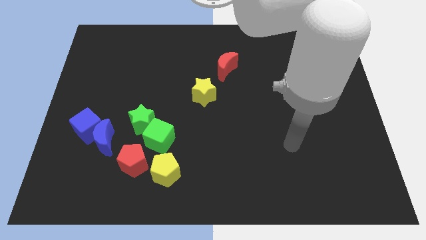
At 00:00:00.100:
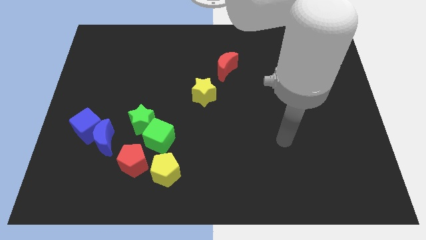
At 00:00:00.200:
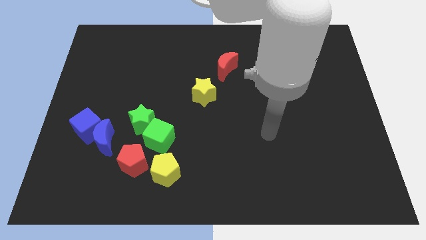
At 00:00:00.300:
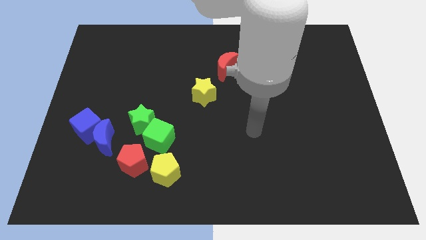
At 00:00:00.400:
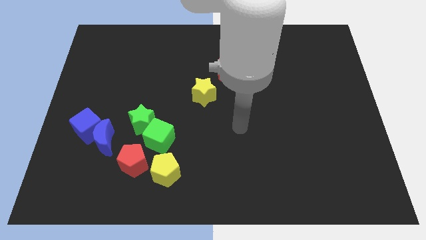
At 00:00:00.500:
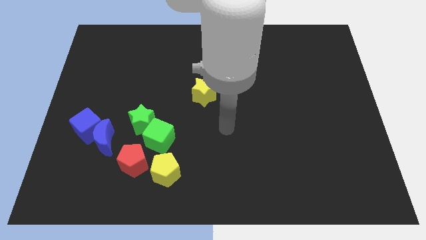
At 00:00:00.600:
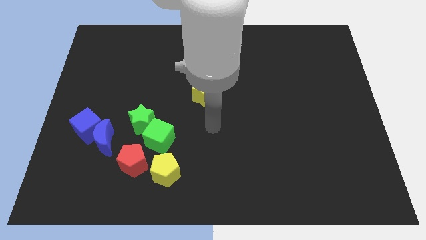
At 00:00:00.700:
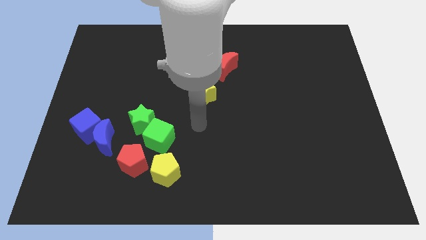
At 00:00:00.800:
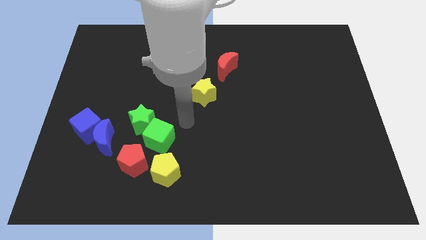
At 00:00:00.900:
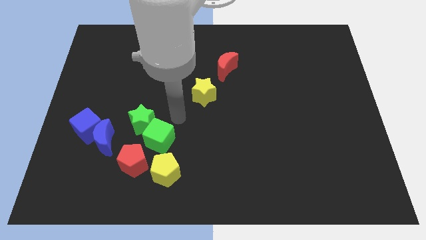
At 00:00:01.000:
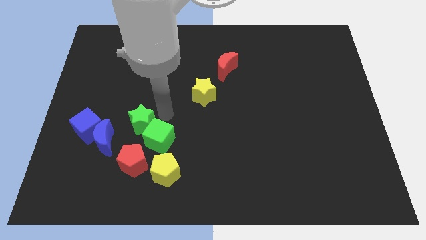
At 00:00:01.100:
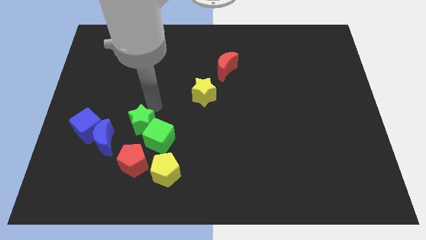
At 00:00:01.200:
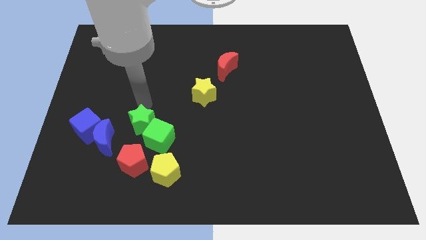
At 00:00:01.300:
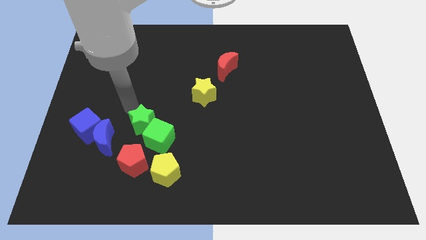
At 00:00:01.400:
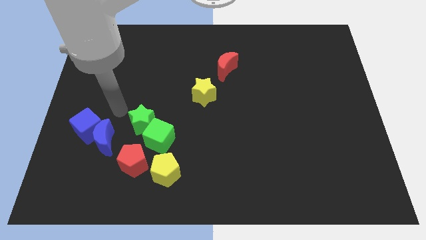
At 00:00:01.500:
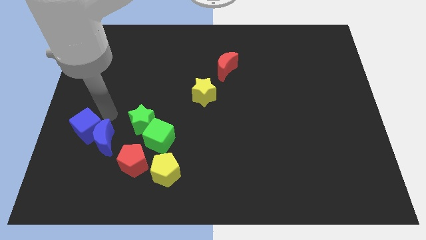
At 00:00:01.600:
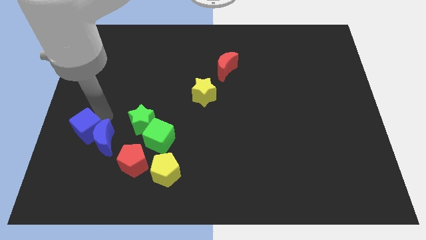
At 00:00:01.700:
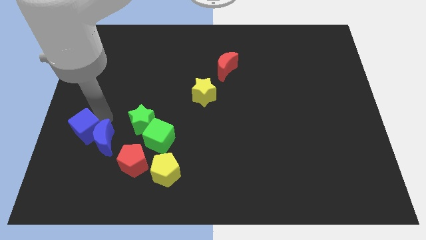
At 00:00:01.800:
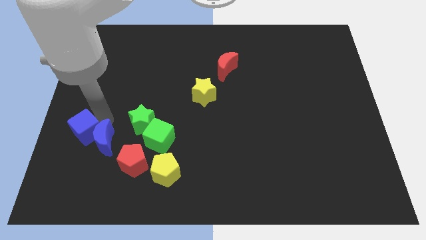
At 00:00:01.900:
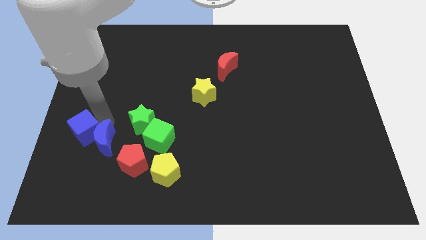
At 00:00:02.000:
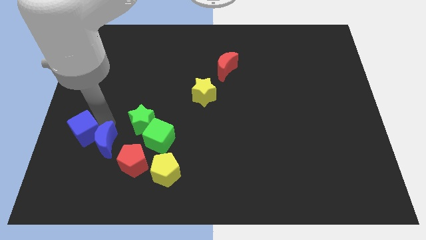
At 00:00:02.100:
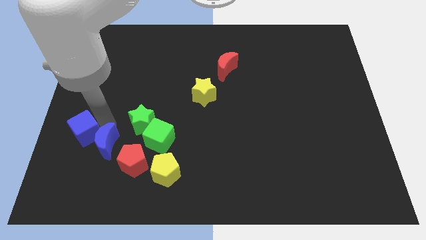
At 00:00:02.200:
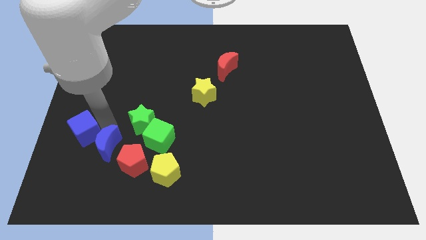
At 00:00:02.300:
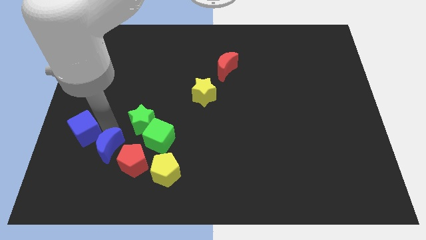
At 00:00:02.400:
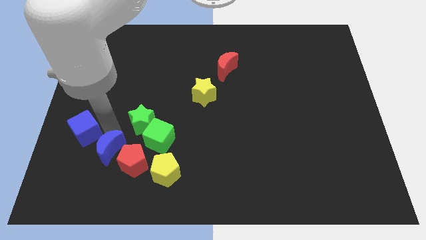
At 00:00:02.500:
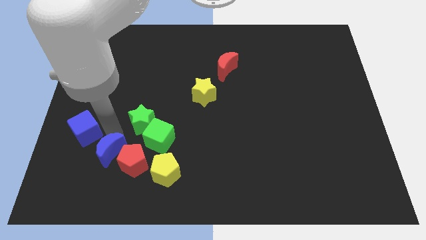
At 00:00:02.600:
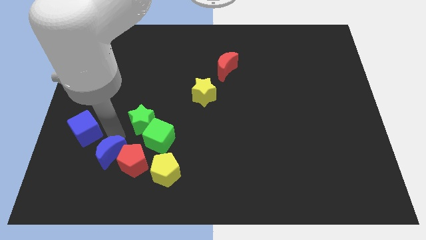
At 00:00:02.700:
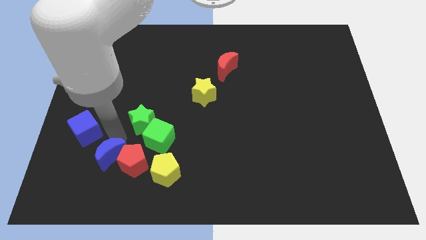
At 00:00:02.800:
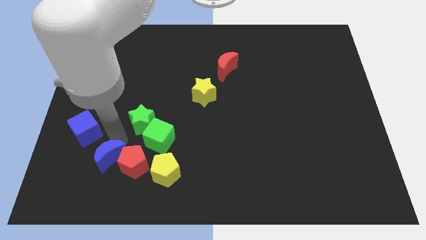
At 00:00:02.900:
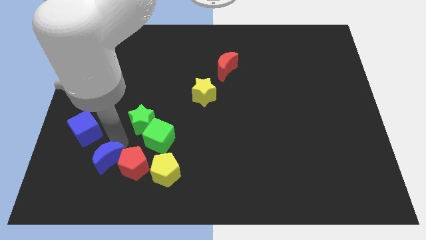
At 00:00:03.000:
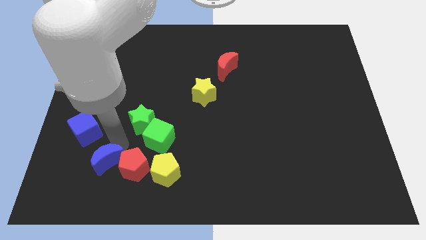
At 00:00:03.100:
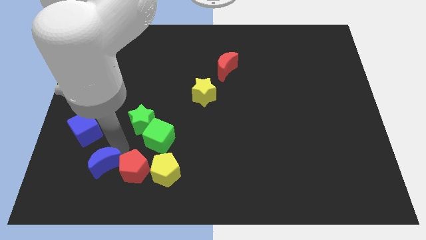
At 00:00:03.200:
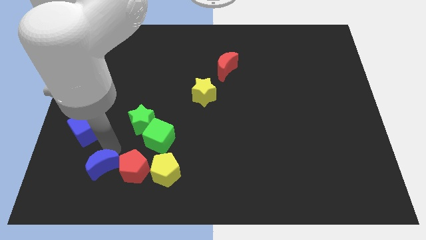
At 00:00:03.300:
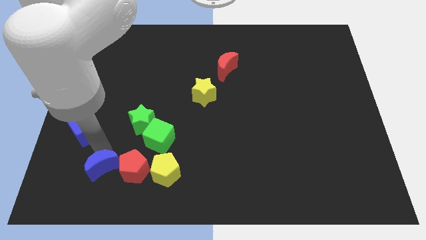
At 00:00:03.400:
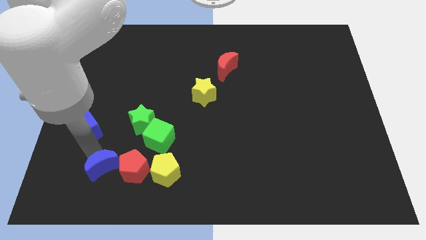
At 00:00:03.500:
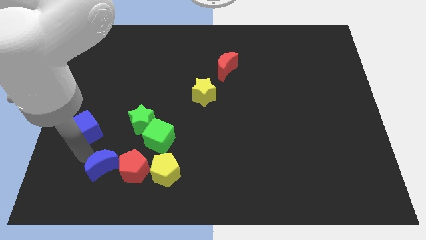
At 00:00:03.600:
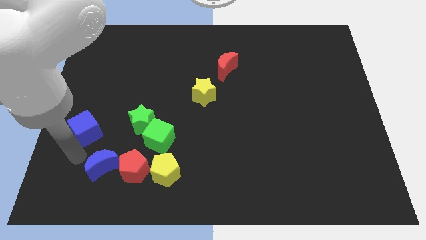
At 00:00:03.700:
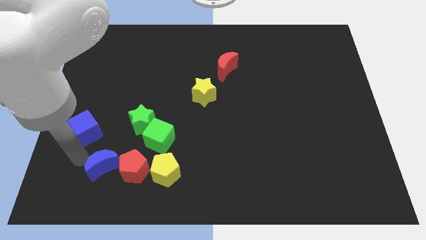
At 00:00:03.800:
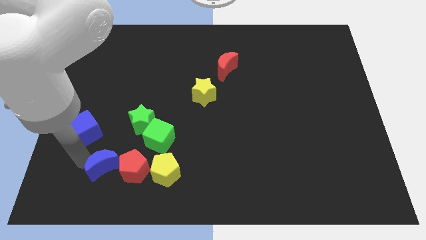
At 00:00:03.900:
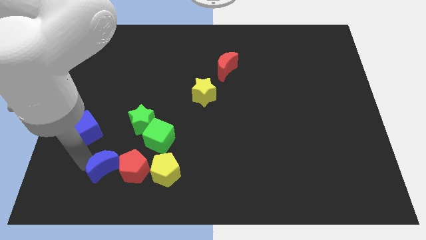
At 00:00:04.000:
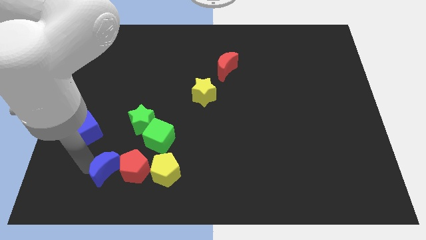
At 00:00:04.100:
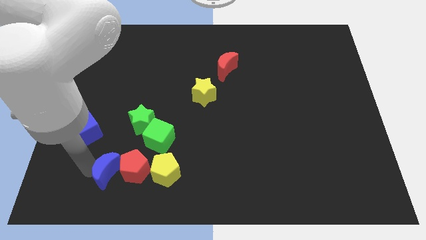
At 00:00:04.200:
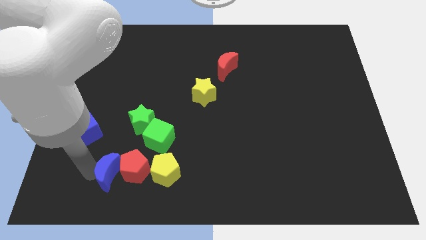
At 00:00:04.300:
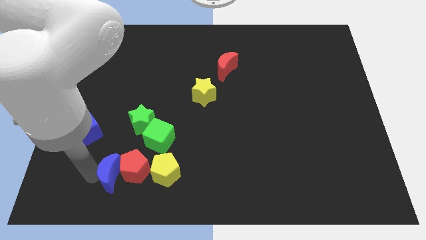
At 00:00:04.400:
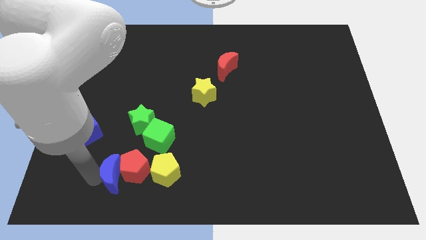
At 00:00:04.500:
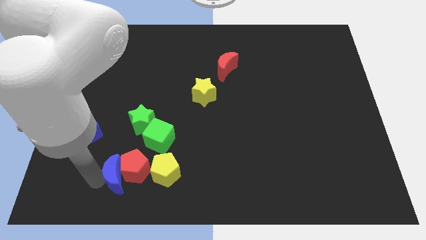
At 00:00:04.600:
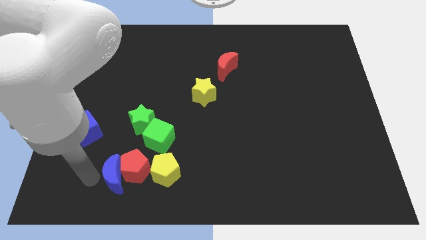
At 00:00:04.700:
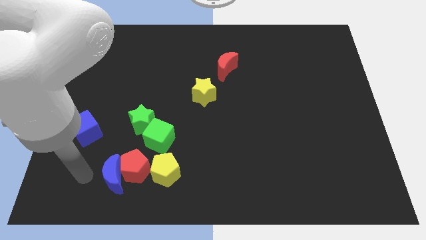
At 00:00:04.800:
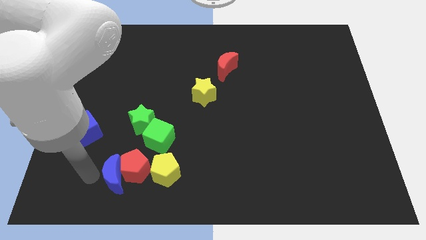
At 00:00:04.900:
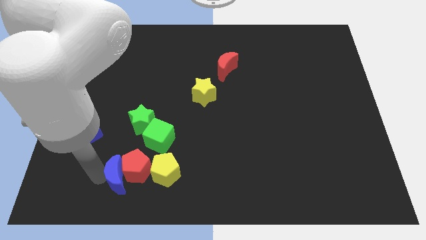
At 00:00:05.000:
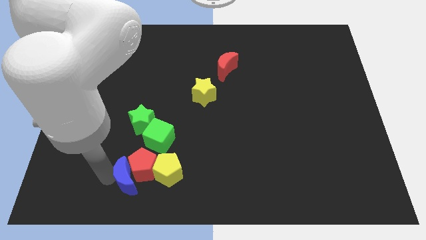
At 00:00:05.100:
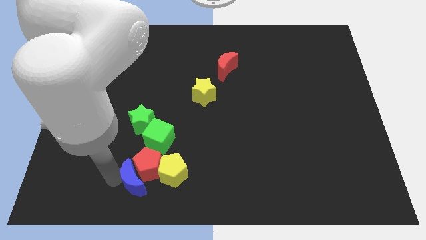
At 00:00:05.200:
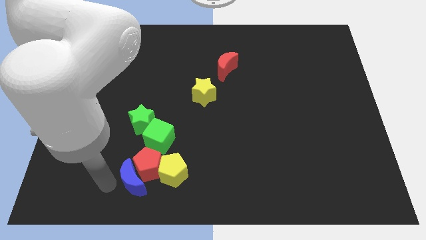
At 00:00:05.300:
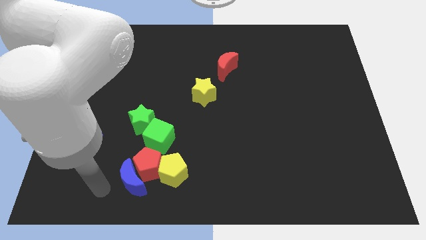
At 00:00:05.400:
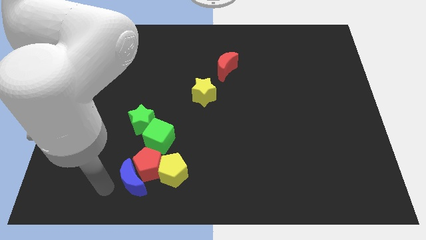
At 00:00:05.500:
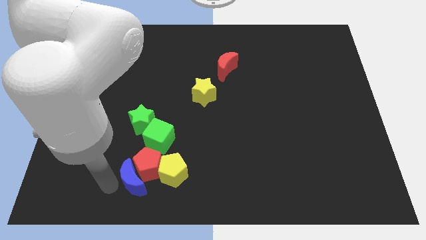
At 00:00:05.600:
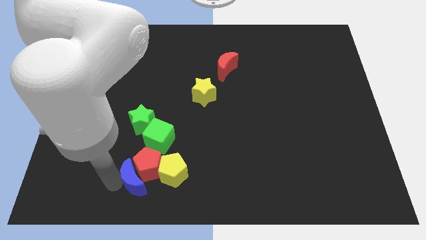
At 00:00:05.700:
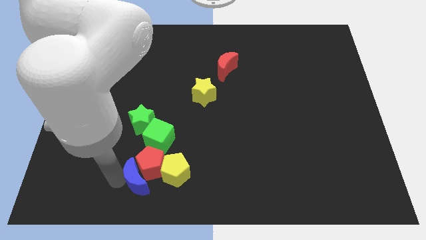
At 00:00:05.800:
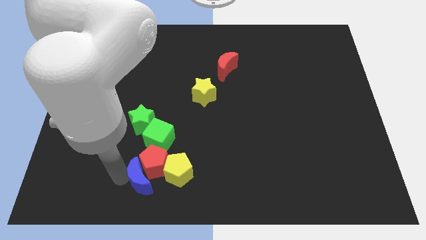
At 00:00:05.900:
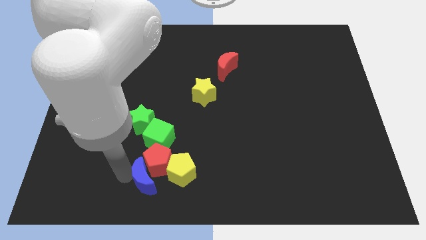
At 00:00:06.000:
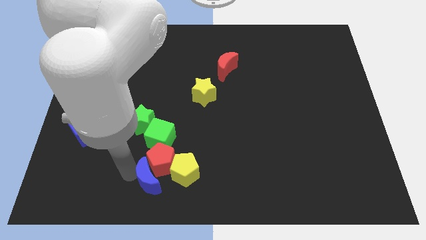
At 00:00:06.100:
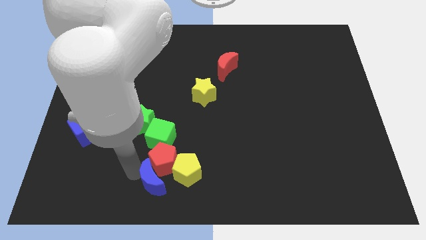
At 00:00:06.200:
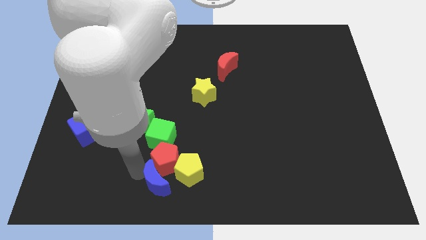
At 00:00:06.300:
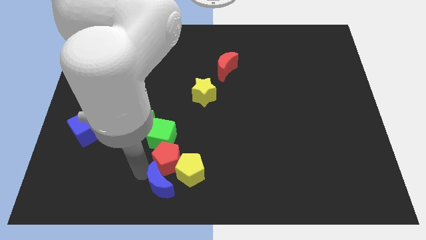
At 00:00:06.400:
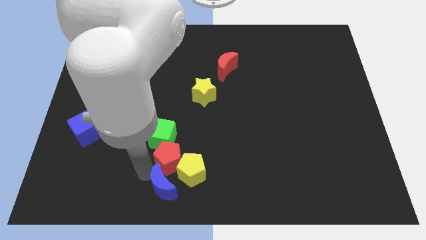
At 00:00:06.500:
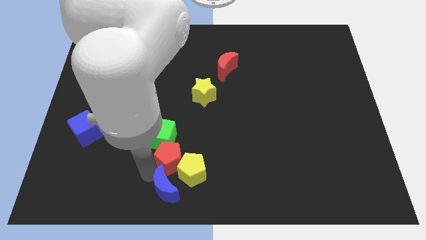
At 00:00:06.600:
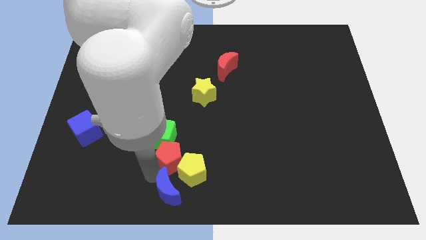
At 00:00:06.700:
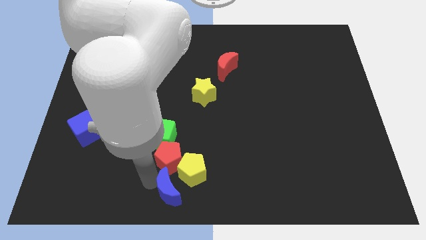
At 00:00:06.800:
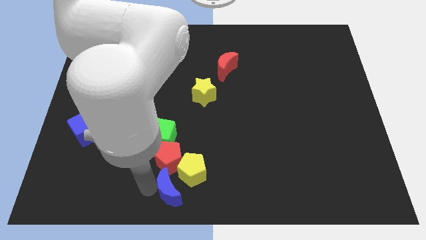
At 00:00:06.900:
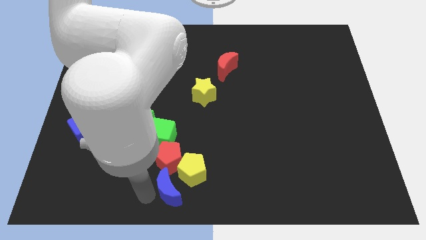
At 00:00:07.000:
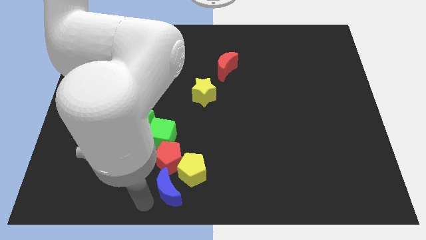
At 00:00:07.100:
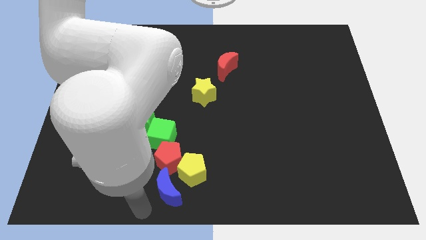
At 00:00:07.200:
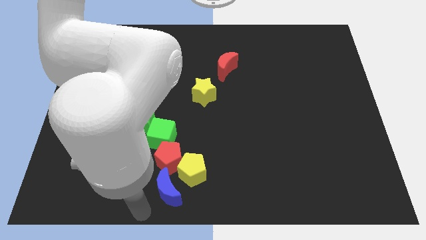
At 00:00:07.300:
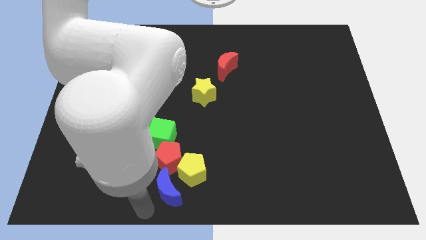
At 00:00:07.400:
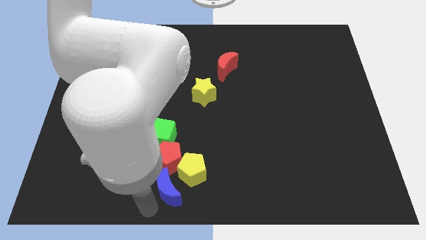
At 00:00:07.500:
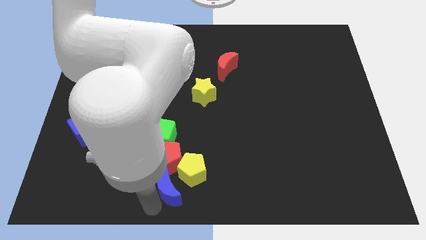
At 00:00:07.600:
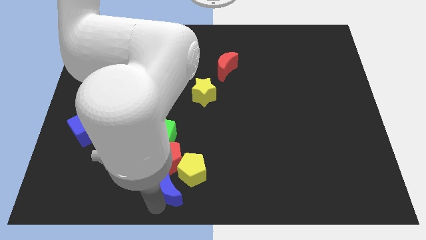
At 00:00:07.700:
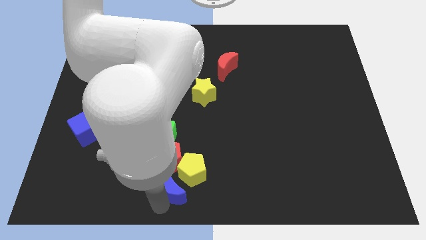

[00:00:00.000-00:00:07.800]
slide the blue moon towards the yellow pentagon
